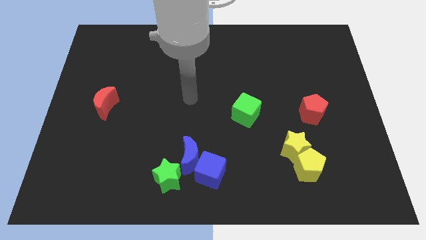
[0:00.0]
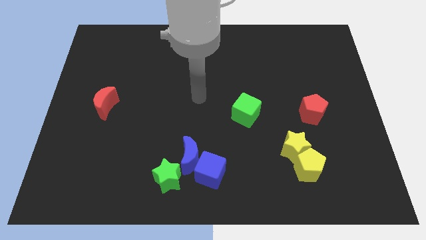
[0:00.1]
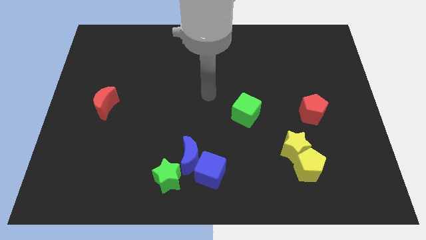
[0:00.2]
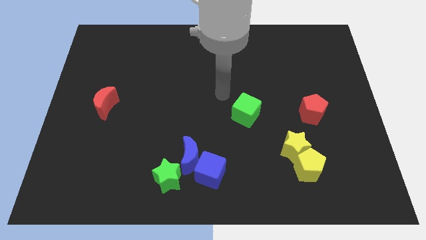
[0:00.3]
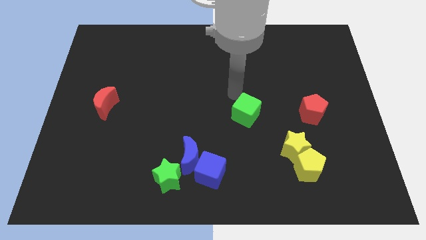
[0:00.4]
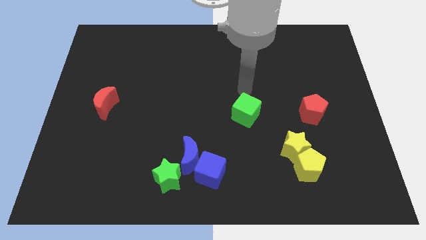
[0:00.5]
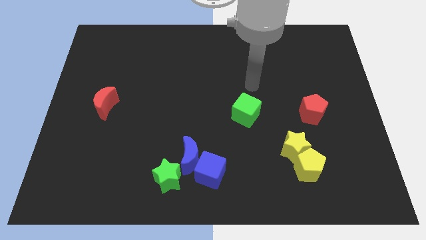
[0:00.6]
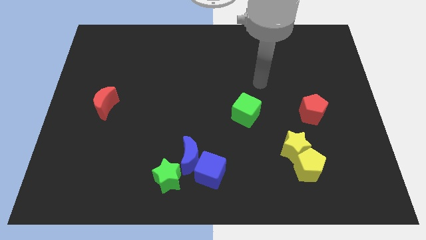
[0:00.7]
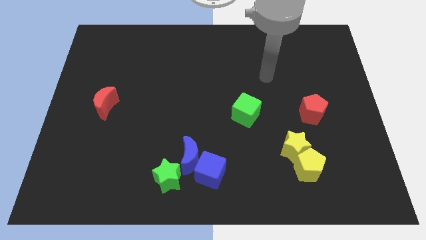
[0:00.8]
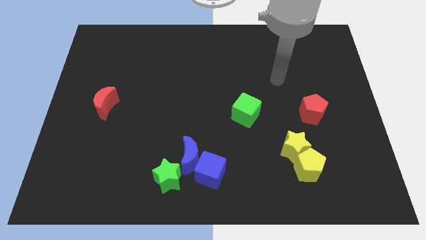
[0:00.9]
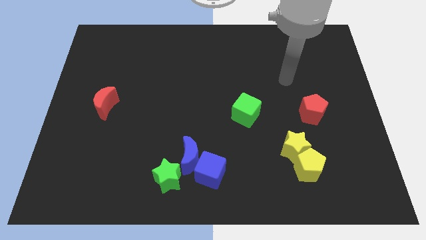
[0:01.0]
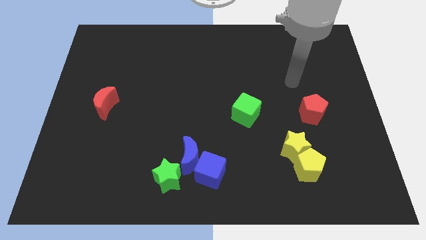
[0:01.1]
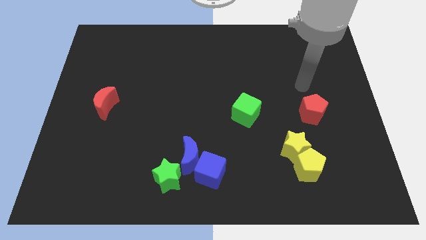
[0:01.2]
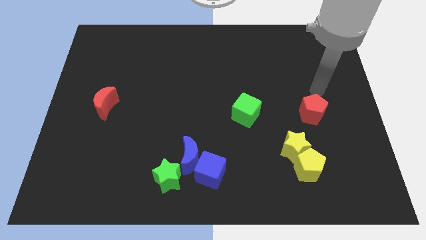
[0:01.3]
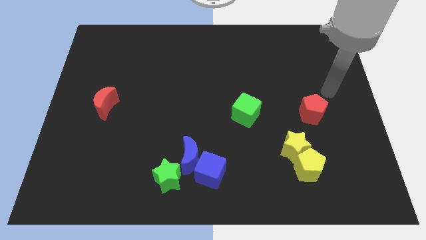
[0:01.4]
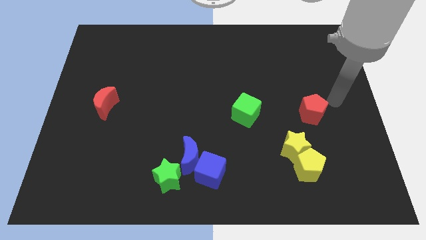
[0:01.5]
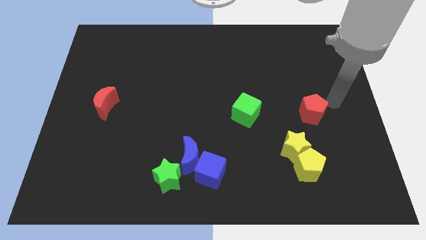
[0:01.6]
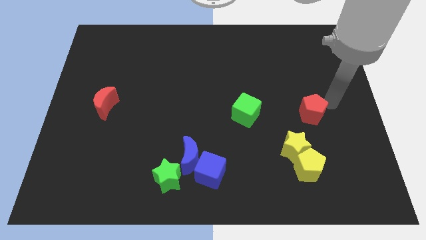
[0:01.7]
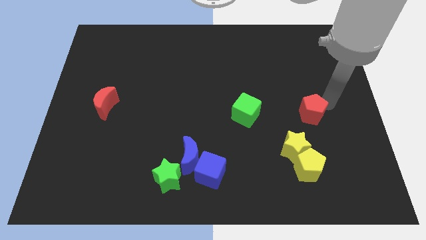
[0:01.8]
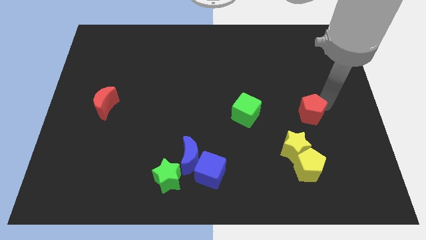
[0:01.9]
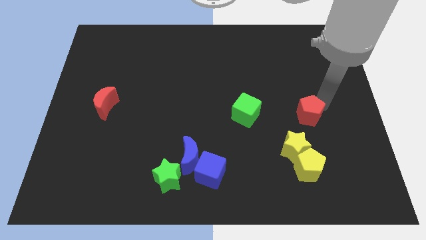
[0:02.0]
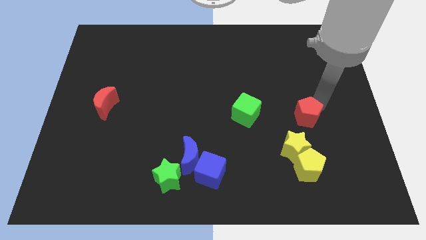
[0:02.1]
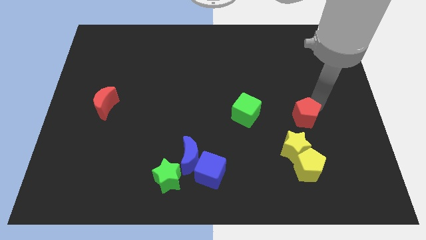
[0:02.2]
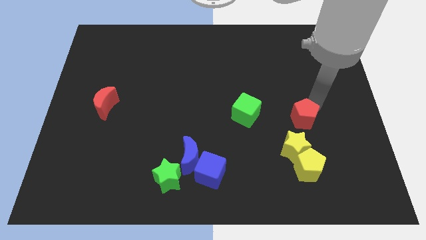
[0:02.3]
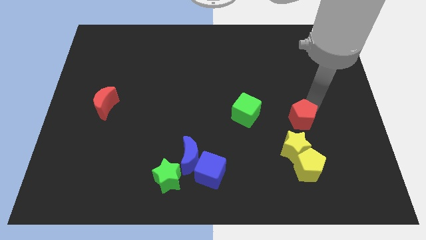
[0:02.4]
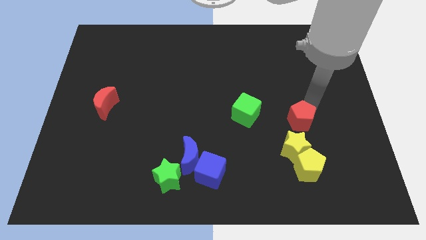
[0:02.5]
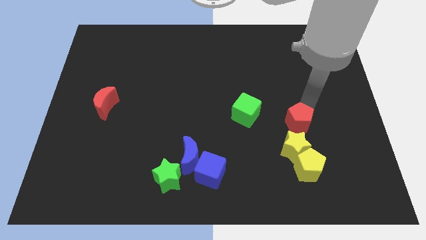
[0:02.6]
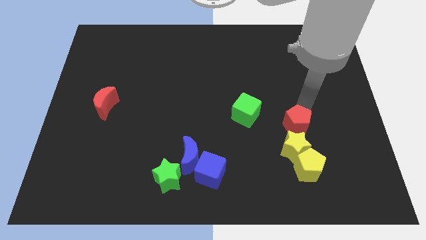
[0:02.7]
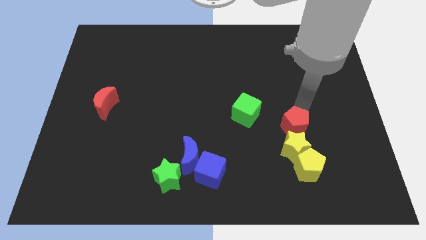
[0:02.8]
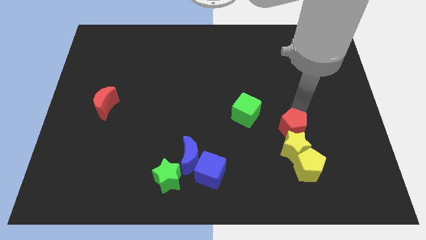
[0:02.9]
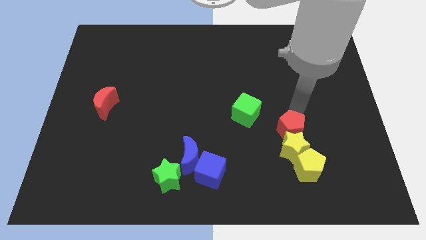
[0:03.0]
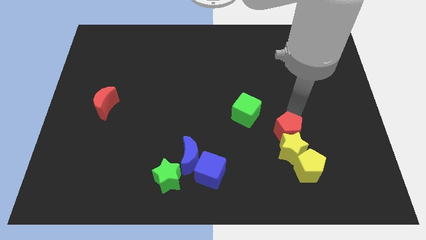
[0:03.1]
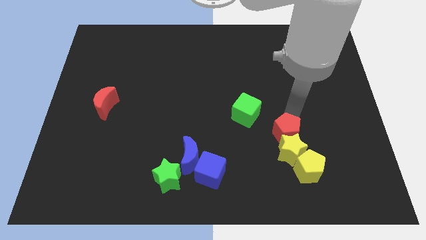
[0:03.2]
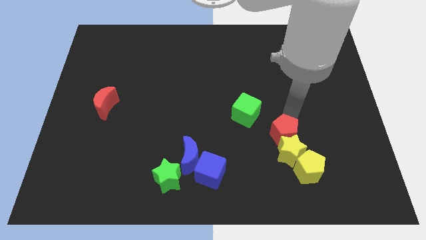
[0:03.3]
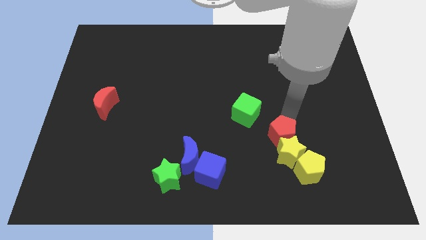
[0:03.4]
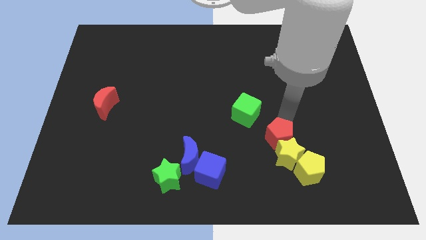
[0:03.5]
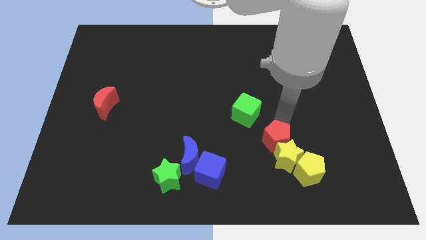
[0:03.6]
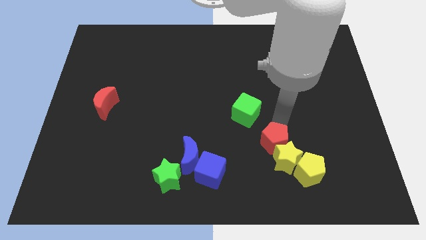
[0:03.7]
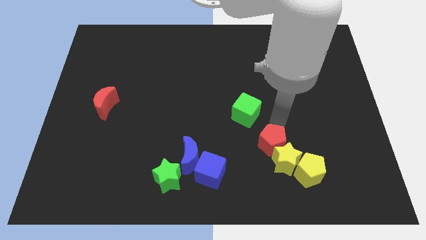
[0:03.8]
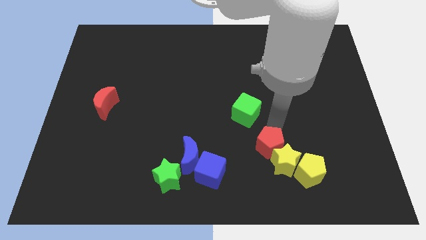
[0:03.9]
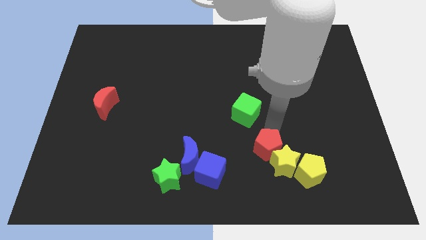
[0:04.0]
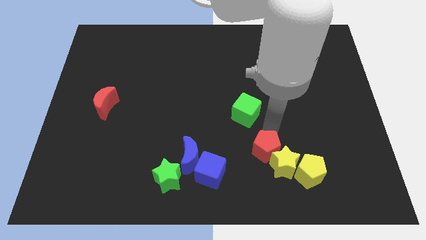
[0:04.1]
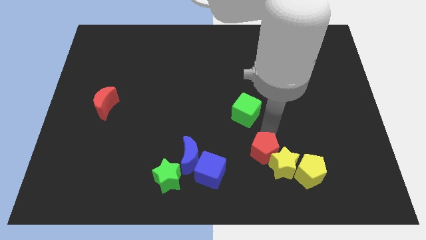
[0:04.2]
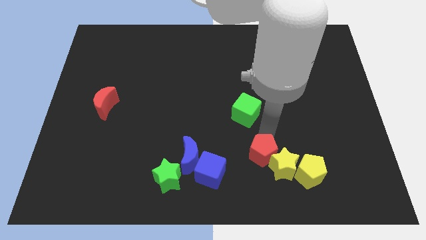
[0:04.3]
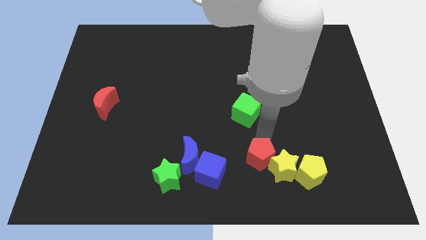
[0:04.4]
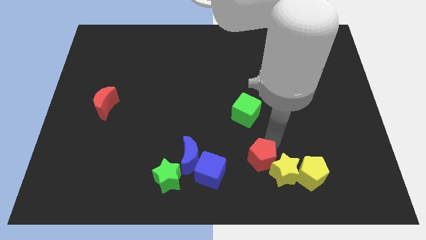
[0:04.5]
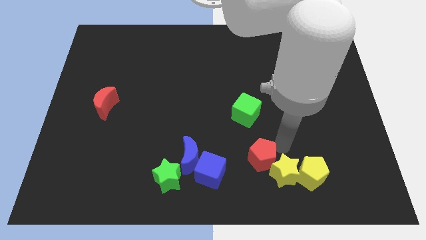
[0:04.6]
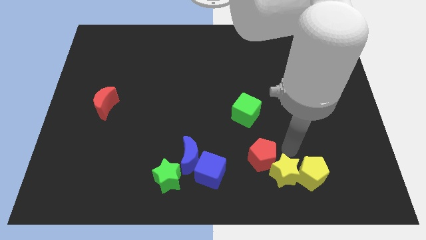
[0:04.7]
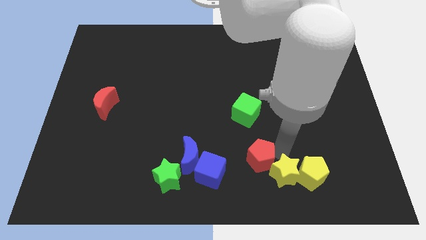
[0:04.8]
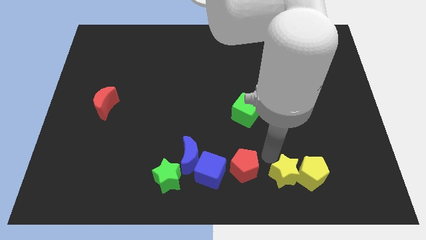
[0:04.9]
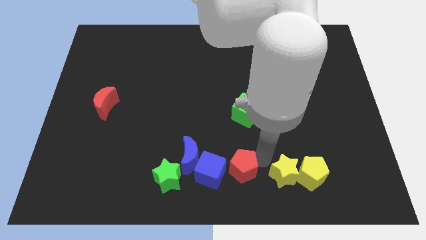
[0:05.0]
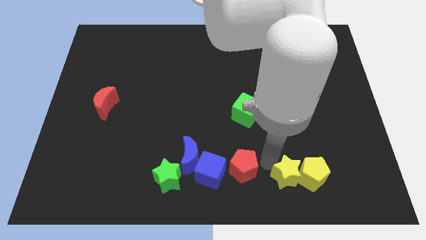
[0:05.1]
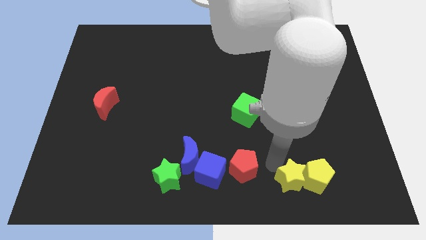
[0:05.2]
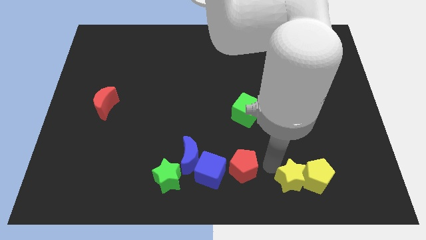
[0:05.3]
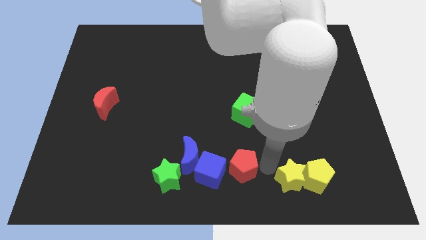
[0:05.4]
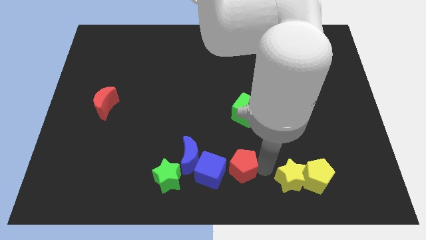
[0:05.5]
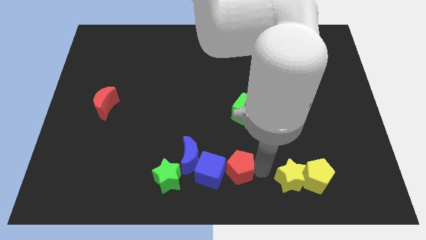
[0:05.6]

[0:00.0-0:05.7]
put the red pentagon to the blue cube

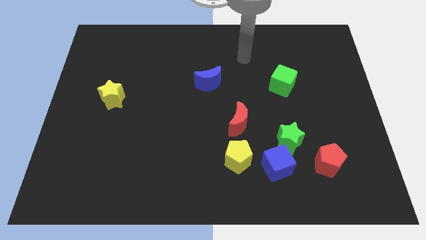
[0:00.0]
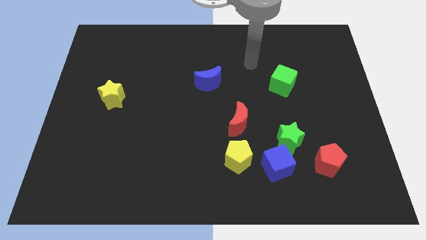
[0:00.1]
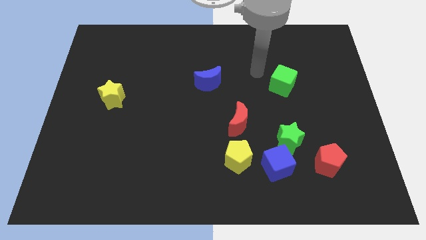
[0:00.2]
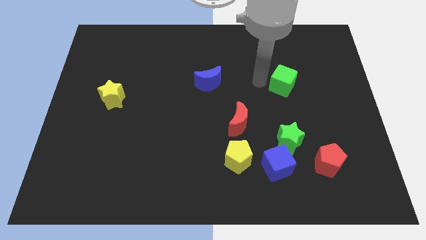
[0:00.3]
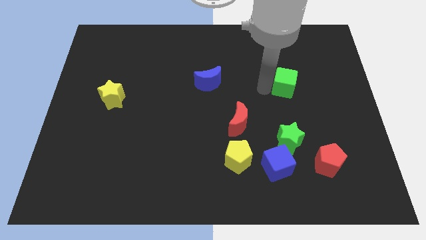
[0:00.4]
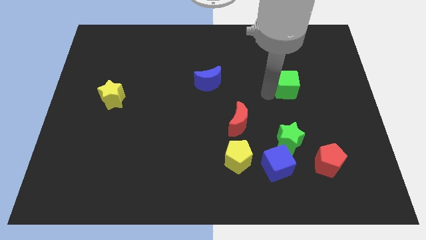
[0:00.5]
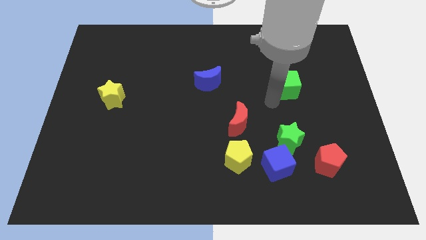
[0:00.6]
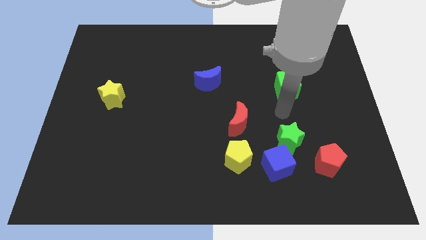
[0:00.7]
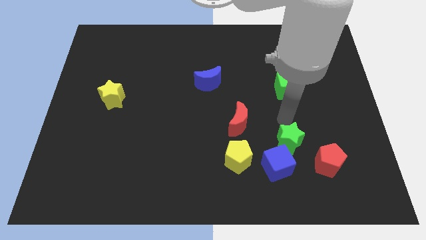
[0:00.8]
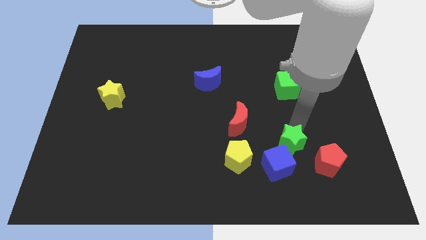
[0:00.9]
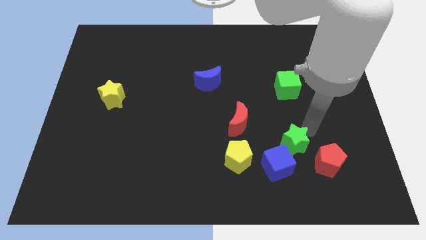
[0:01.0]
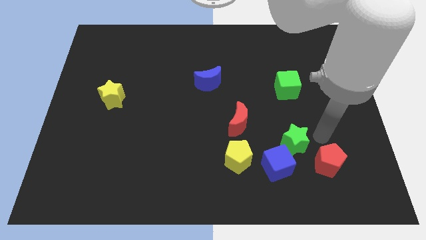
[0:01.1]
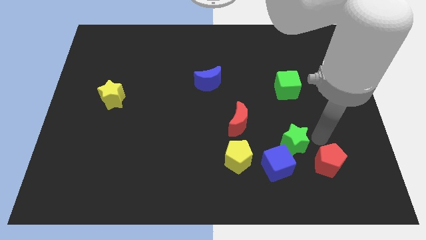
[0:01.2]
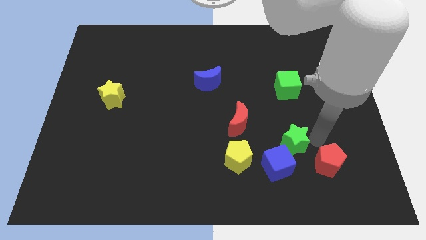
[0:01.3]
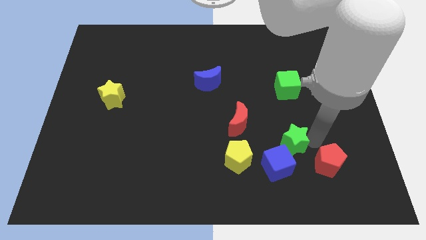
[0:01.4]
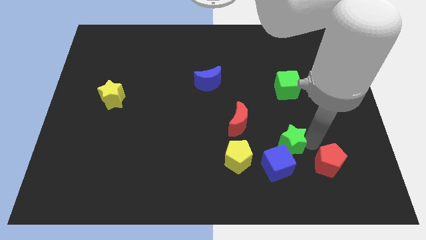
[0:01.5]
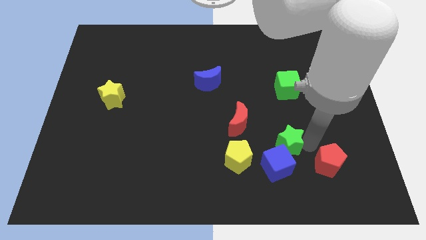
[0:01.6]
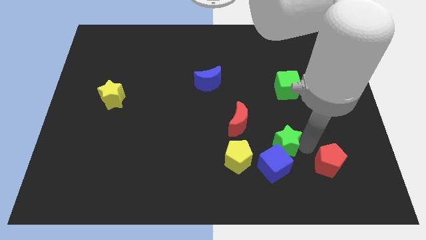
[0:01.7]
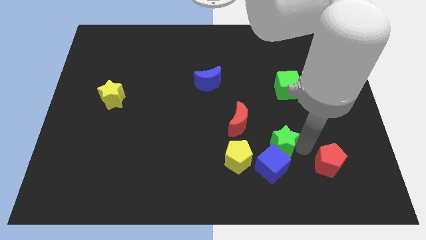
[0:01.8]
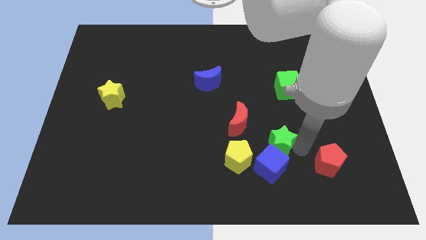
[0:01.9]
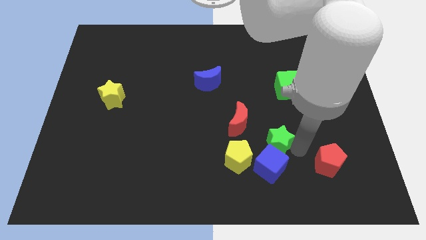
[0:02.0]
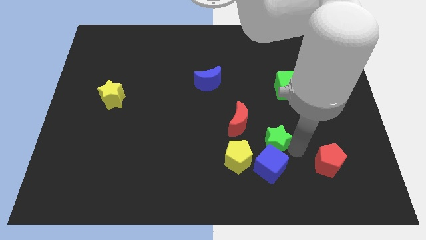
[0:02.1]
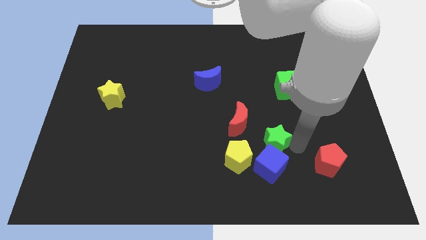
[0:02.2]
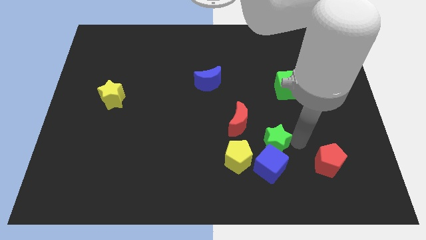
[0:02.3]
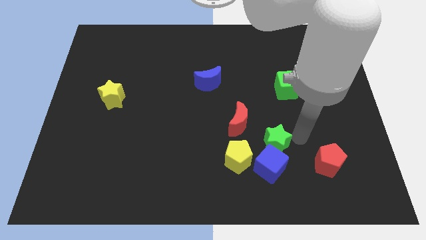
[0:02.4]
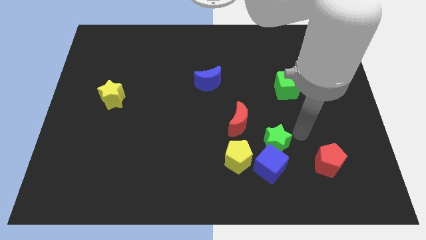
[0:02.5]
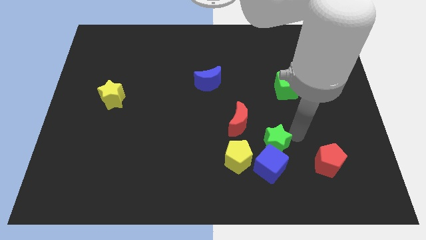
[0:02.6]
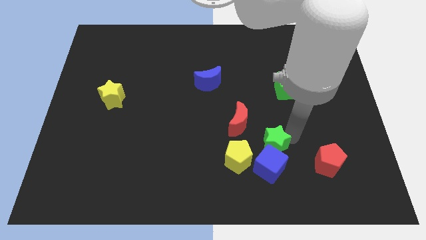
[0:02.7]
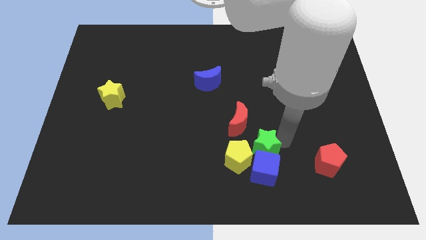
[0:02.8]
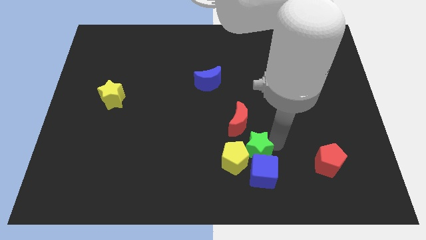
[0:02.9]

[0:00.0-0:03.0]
slide the green star to the yellow pentagon
